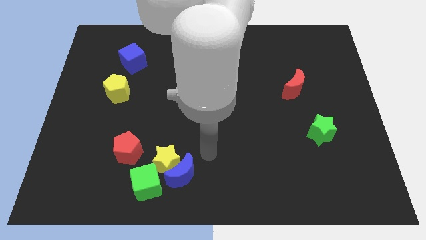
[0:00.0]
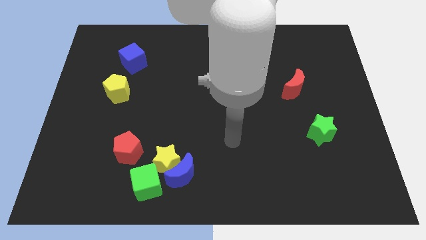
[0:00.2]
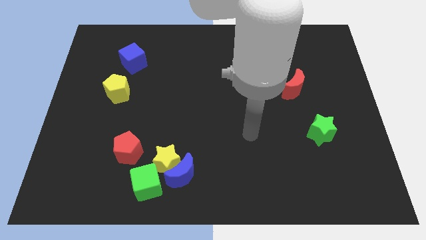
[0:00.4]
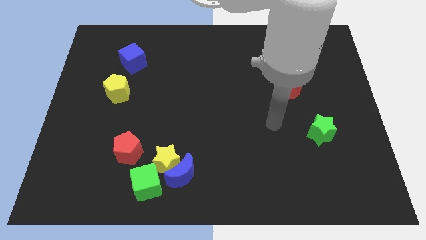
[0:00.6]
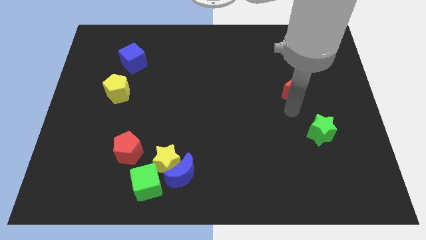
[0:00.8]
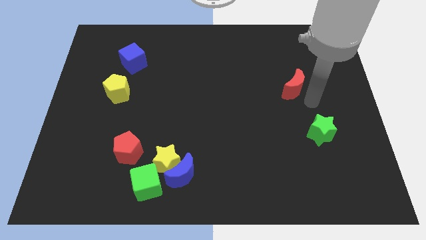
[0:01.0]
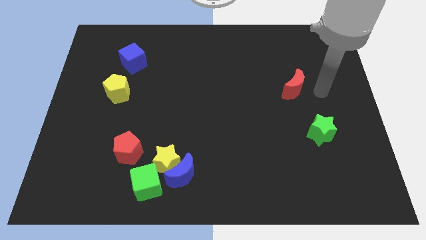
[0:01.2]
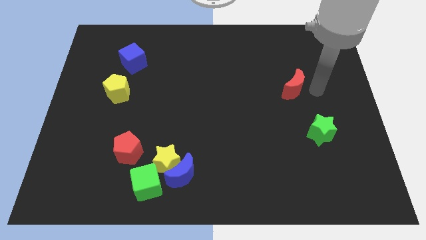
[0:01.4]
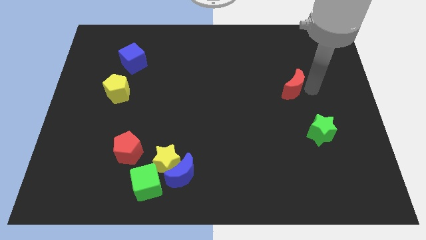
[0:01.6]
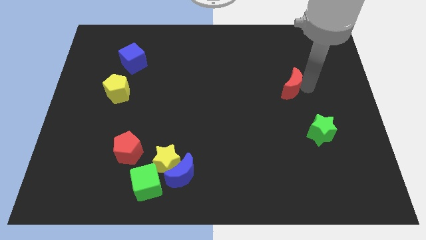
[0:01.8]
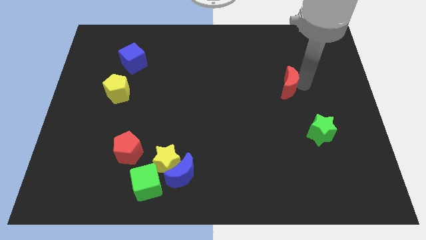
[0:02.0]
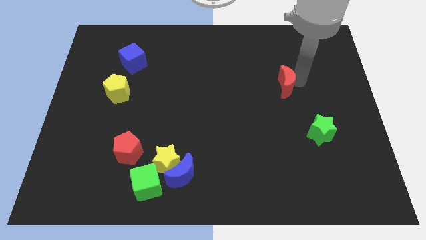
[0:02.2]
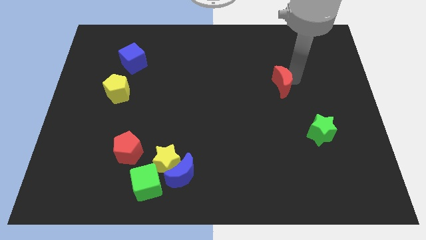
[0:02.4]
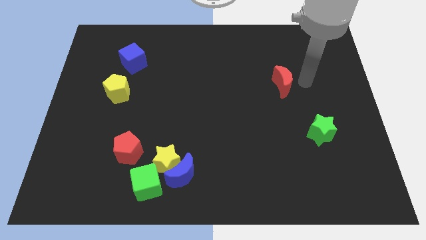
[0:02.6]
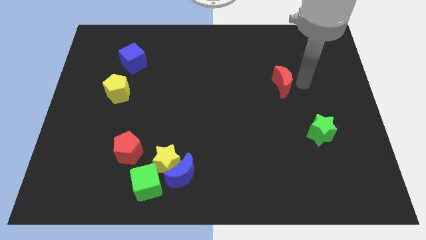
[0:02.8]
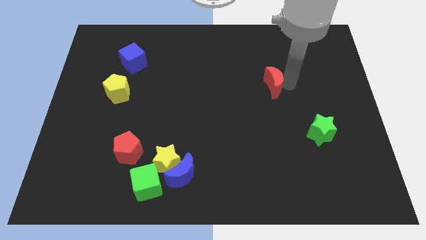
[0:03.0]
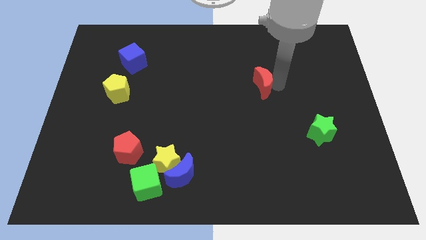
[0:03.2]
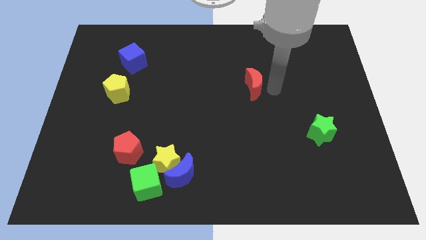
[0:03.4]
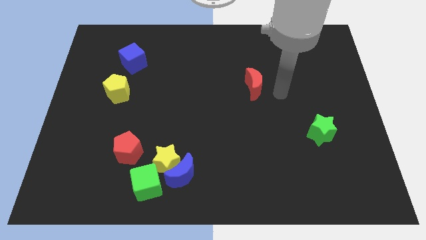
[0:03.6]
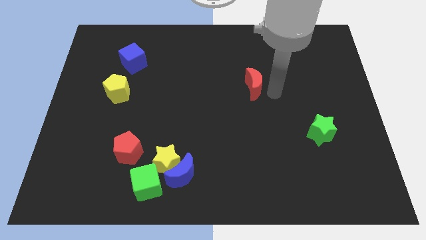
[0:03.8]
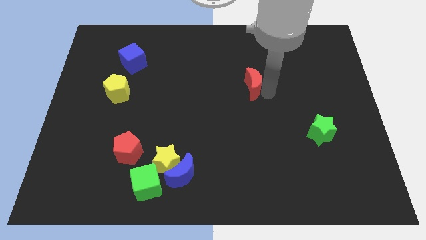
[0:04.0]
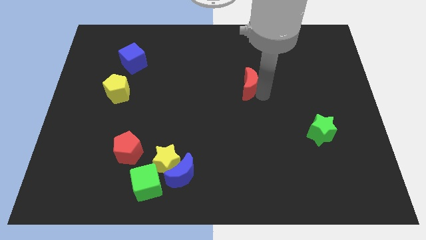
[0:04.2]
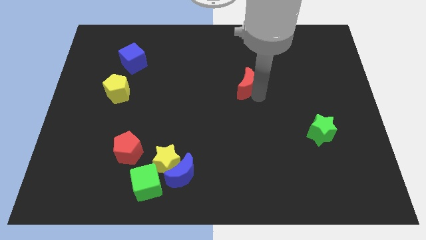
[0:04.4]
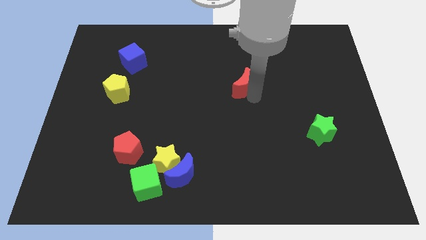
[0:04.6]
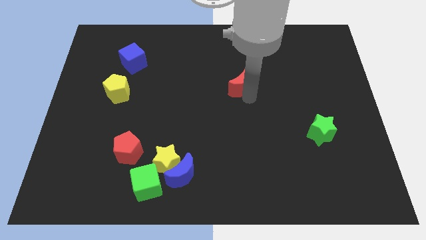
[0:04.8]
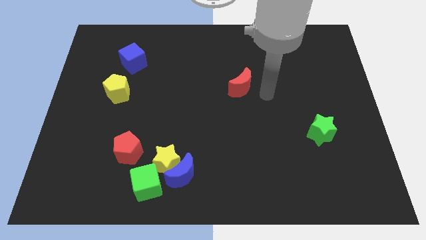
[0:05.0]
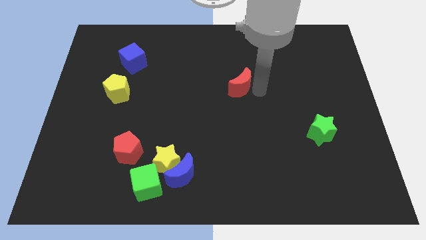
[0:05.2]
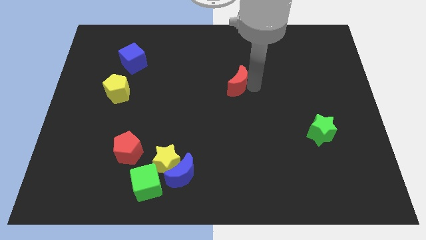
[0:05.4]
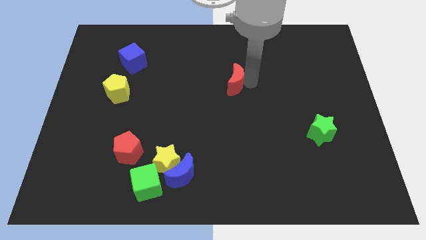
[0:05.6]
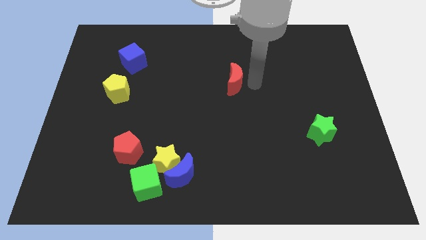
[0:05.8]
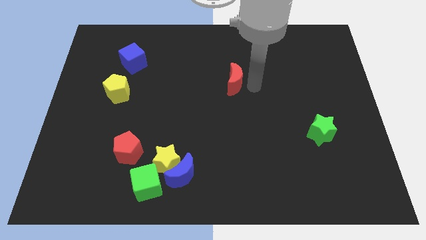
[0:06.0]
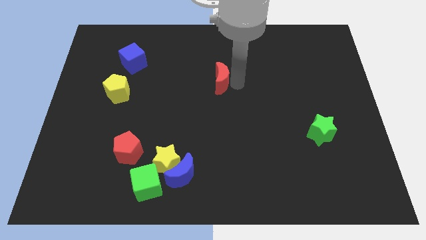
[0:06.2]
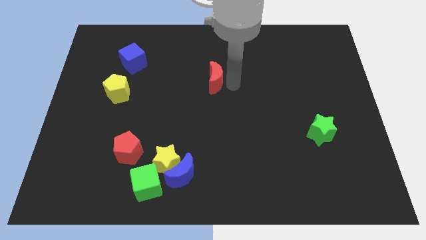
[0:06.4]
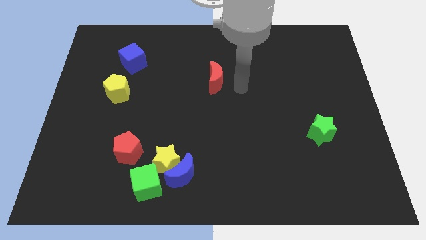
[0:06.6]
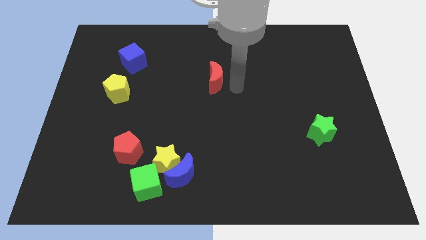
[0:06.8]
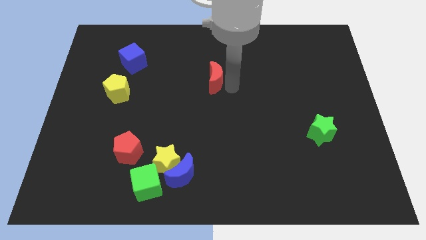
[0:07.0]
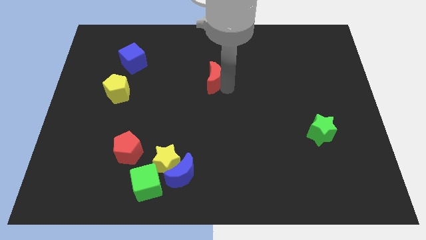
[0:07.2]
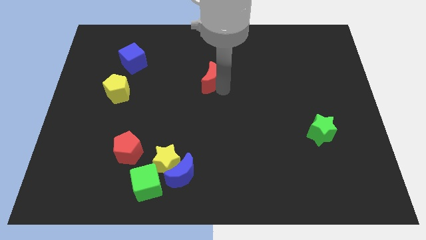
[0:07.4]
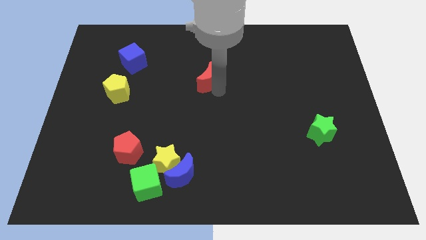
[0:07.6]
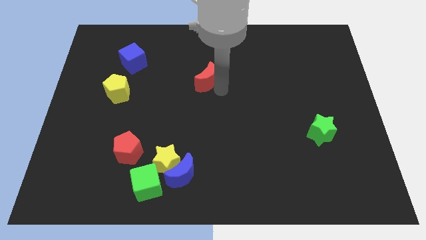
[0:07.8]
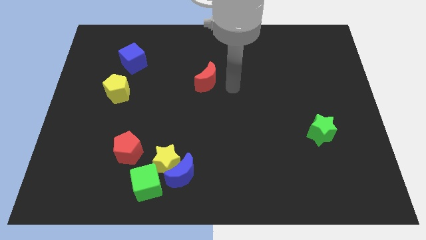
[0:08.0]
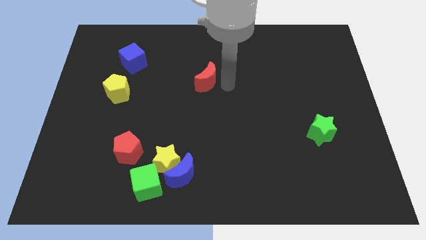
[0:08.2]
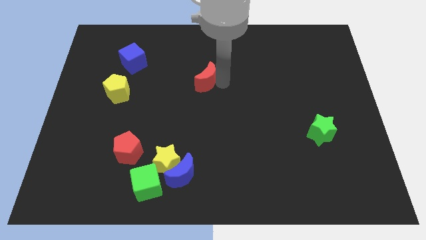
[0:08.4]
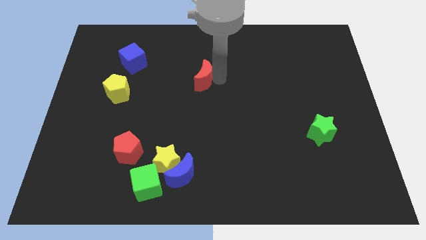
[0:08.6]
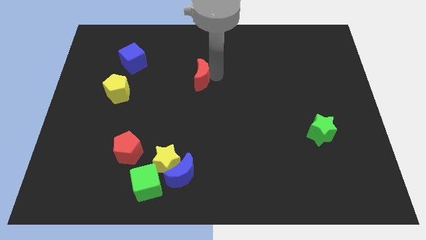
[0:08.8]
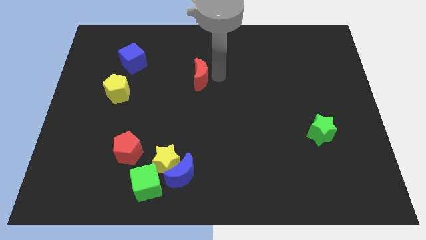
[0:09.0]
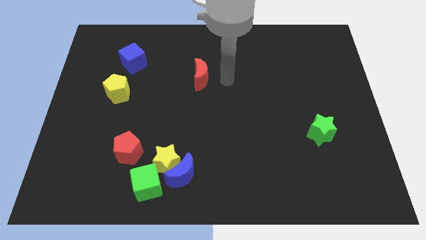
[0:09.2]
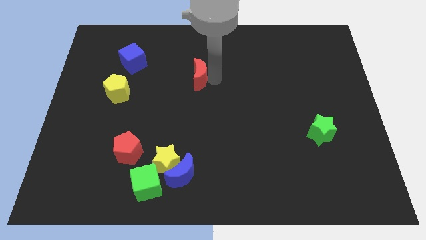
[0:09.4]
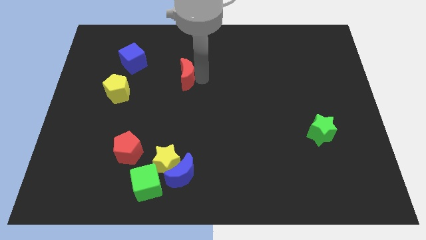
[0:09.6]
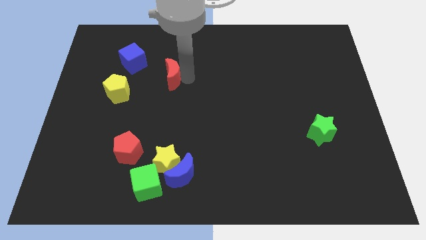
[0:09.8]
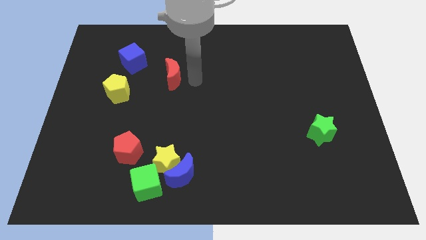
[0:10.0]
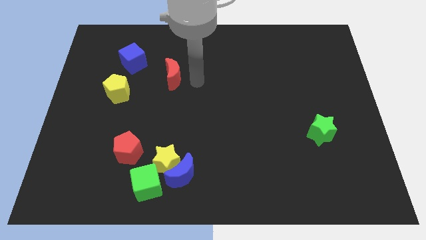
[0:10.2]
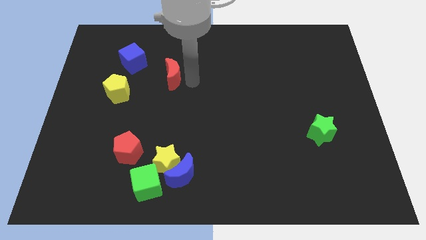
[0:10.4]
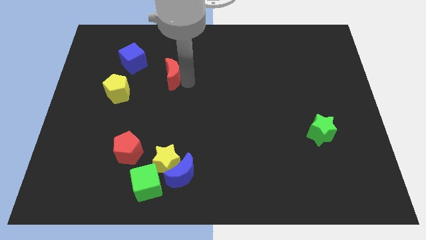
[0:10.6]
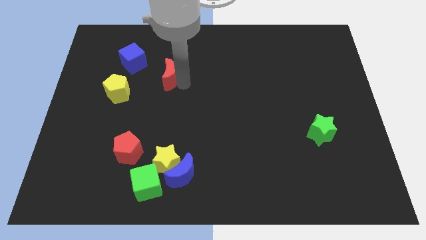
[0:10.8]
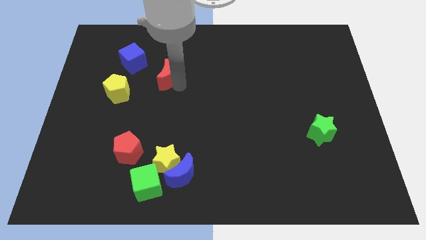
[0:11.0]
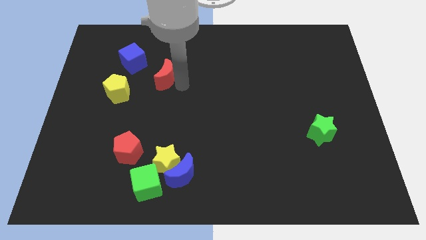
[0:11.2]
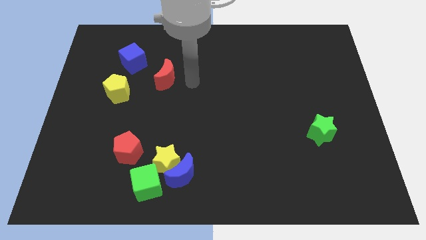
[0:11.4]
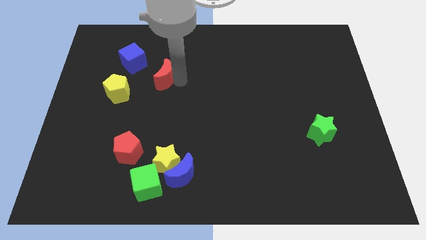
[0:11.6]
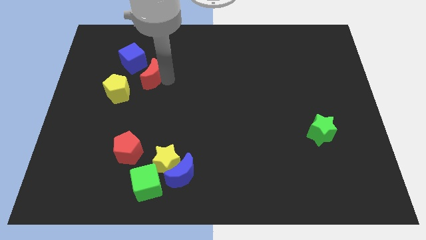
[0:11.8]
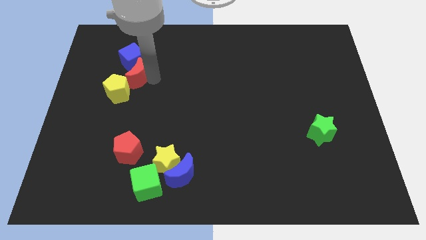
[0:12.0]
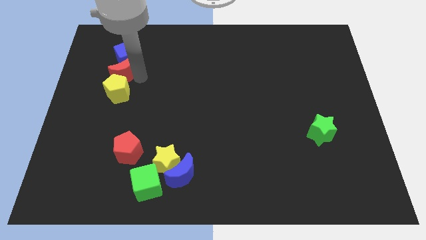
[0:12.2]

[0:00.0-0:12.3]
push the red moon to the top left of the yellow pentagon

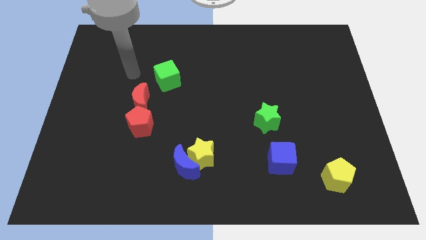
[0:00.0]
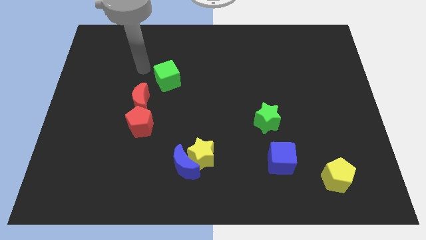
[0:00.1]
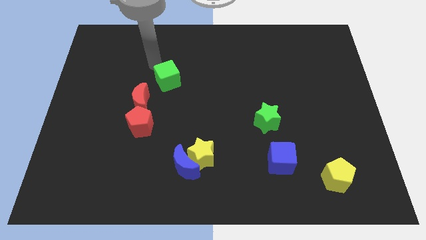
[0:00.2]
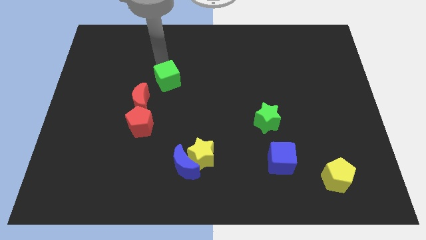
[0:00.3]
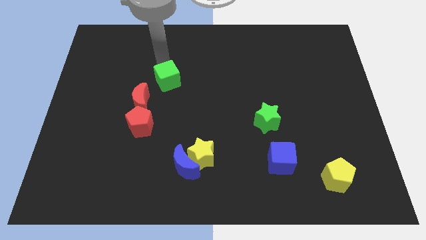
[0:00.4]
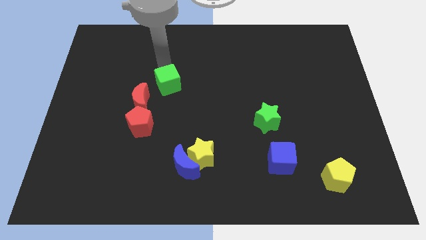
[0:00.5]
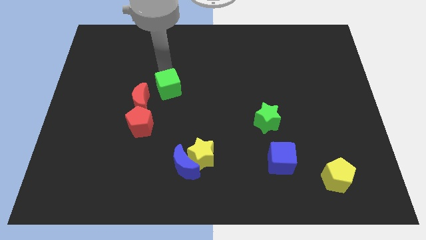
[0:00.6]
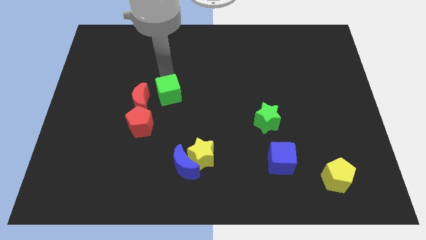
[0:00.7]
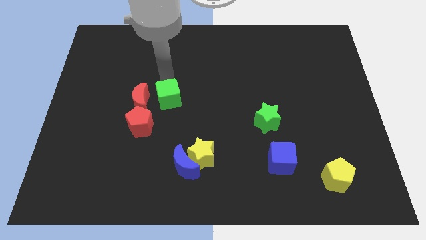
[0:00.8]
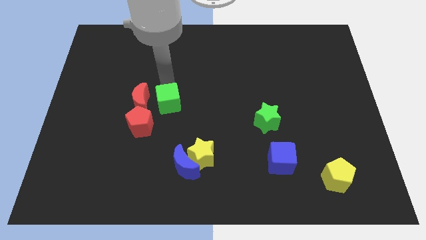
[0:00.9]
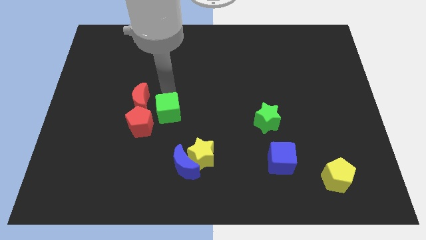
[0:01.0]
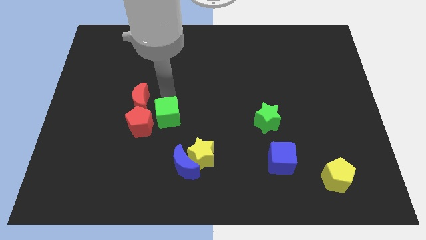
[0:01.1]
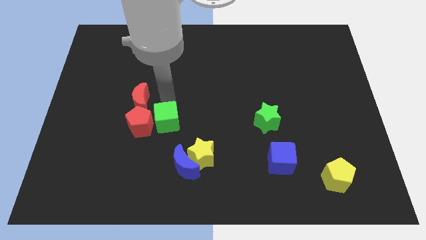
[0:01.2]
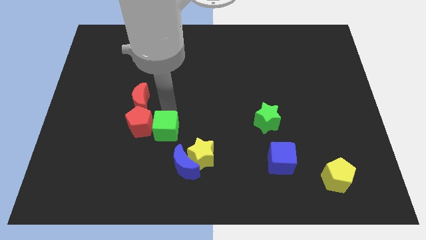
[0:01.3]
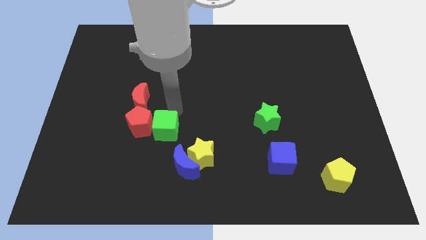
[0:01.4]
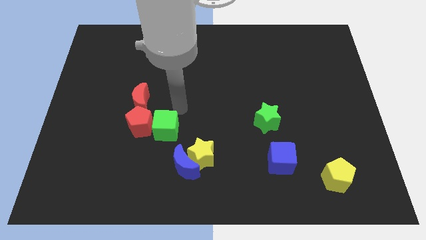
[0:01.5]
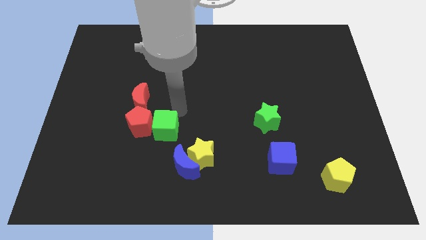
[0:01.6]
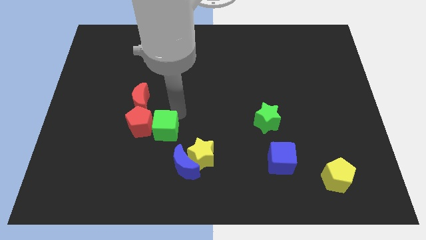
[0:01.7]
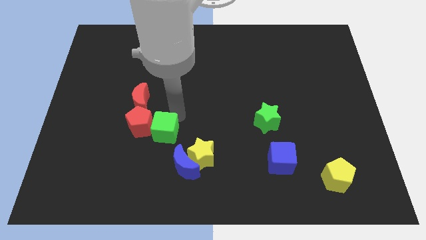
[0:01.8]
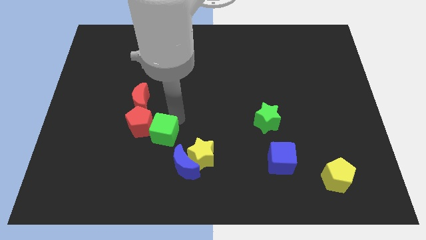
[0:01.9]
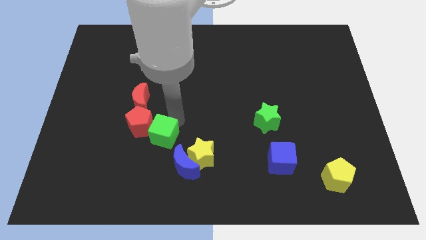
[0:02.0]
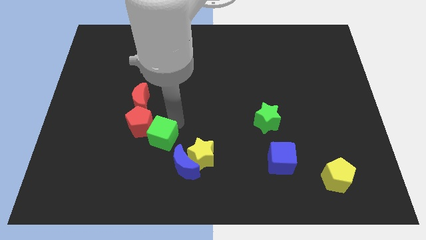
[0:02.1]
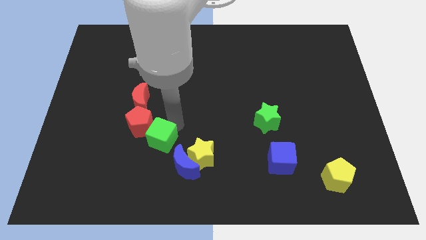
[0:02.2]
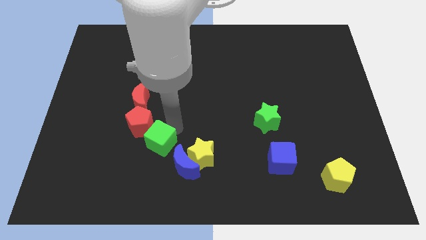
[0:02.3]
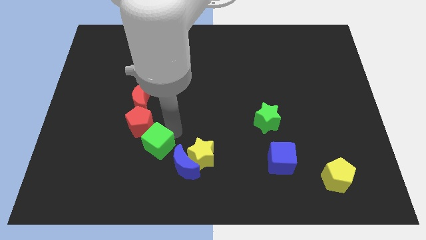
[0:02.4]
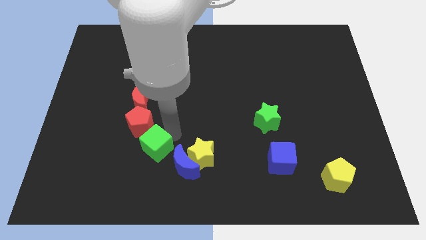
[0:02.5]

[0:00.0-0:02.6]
slide the green cube left of the blue moon
